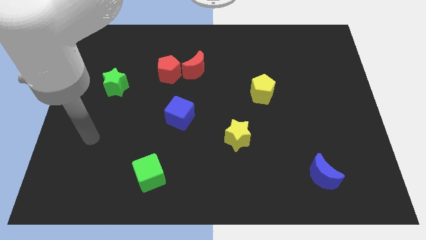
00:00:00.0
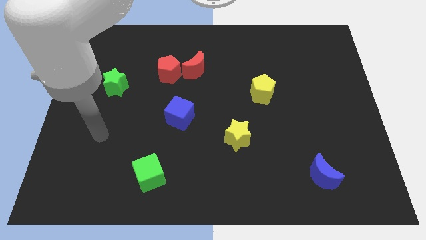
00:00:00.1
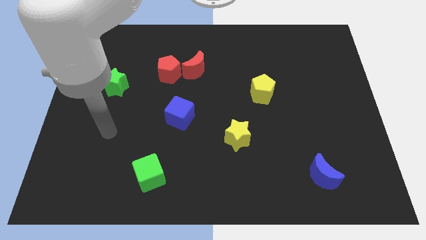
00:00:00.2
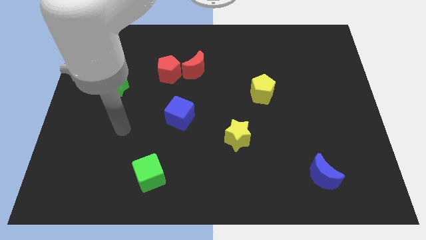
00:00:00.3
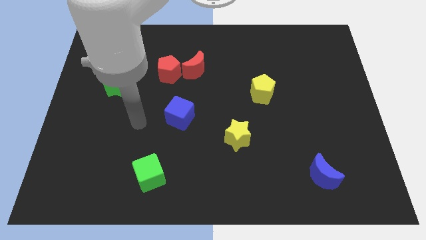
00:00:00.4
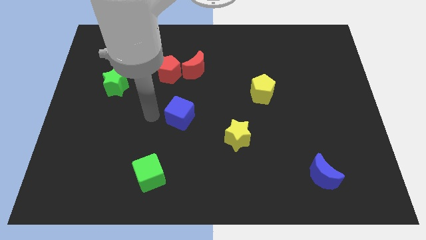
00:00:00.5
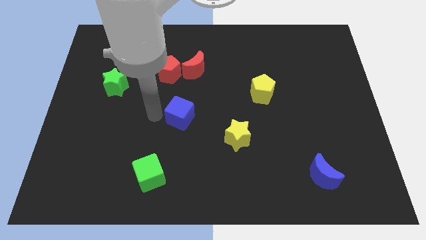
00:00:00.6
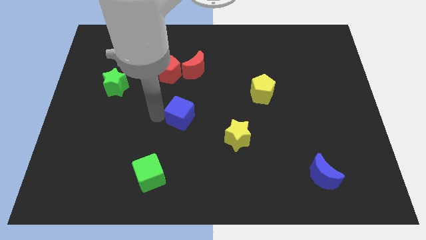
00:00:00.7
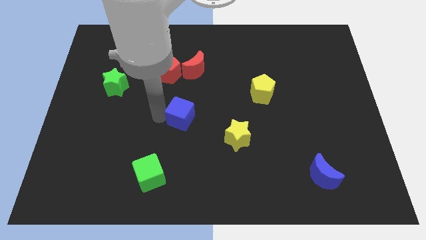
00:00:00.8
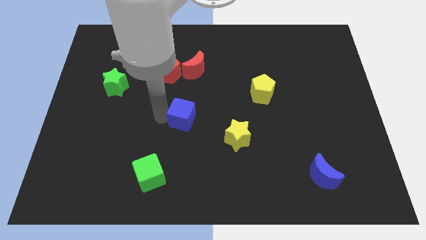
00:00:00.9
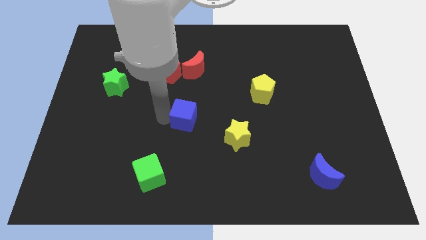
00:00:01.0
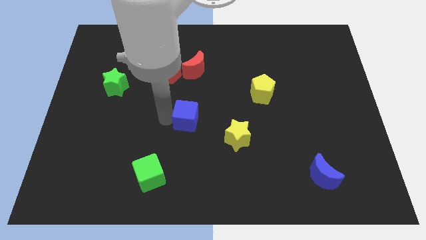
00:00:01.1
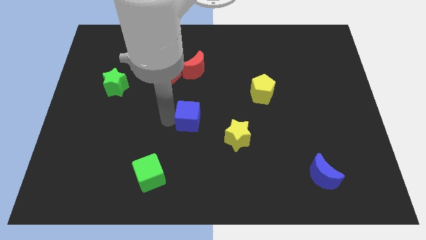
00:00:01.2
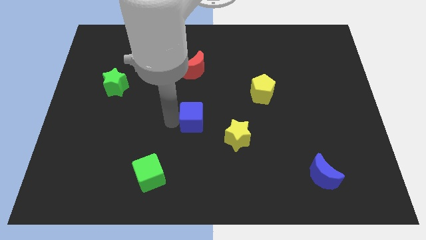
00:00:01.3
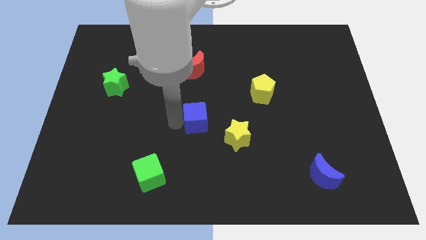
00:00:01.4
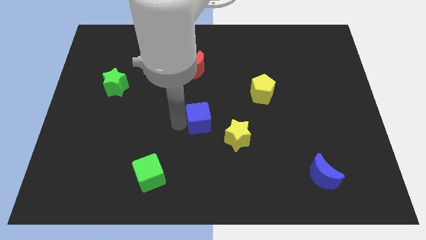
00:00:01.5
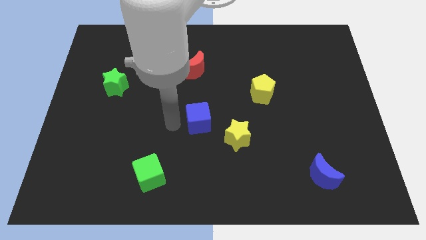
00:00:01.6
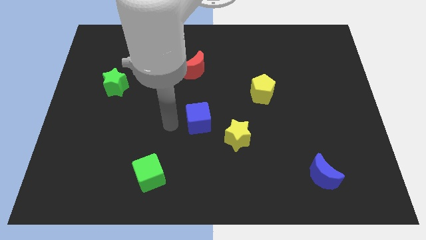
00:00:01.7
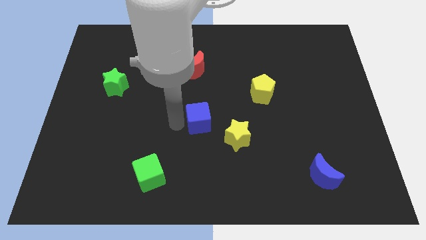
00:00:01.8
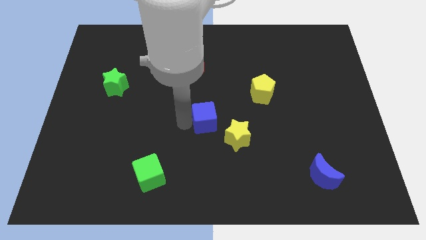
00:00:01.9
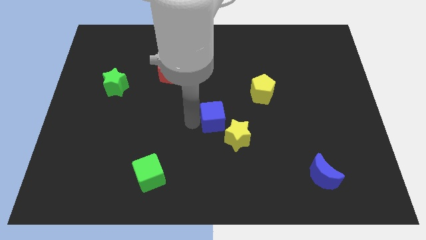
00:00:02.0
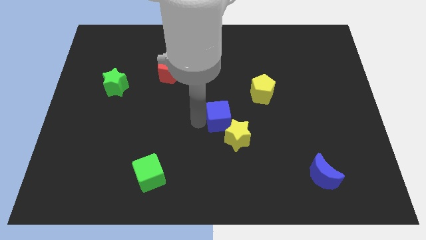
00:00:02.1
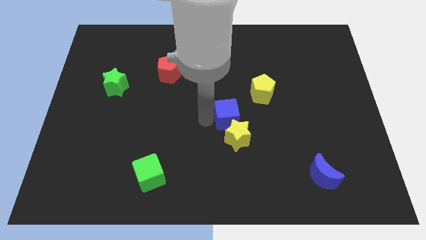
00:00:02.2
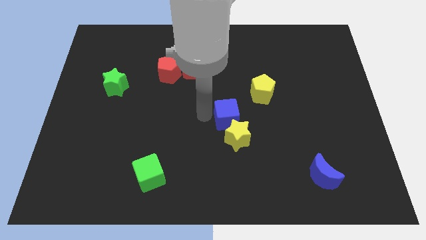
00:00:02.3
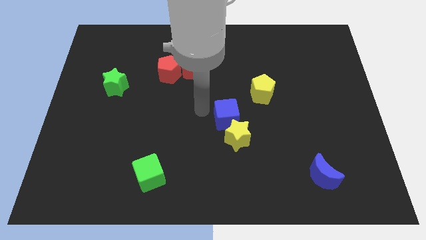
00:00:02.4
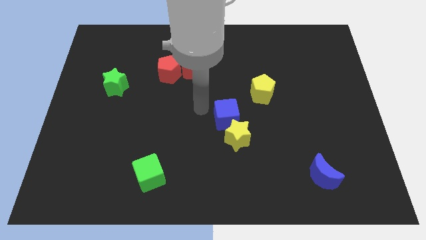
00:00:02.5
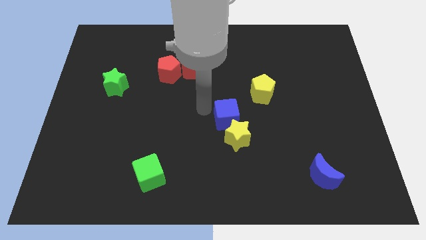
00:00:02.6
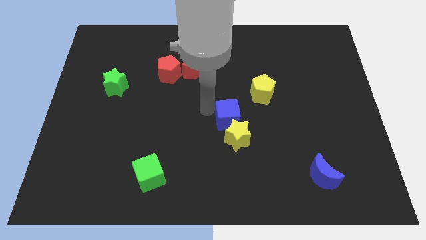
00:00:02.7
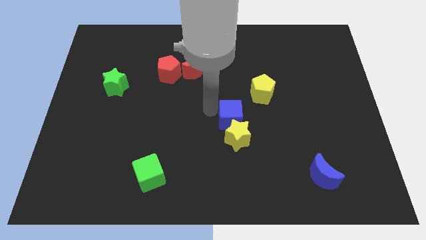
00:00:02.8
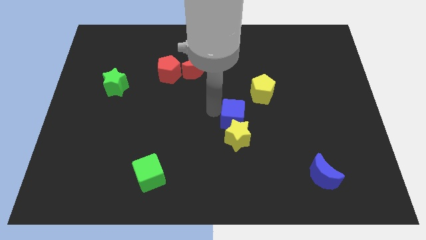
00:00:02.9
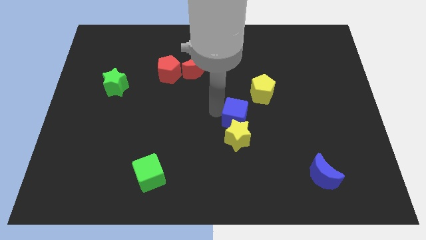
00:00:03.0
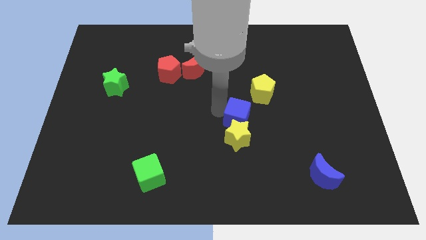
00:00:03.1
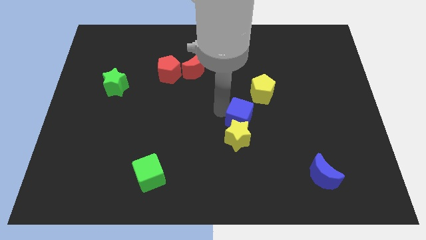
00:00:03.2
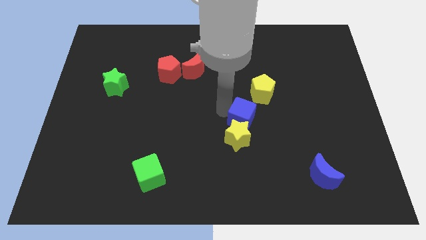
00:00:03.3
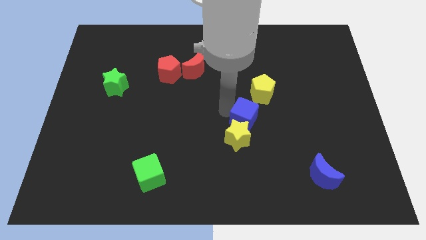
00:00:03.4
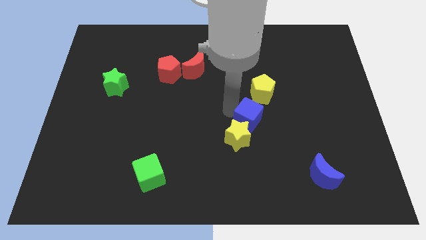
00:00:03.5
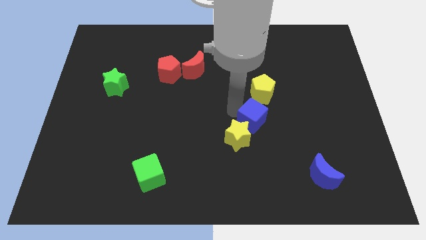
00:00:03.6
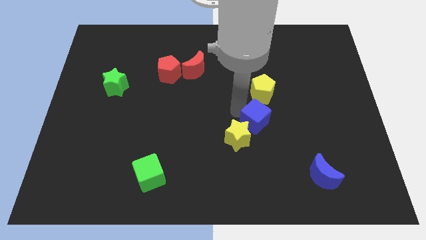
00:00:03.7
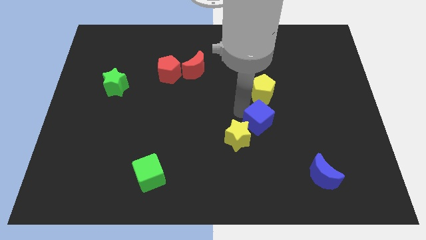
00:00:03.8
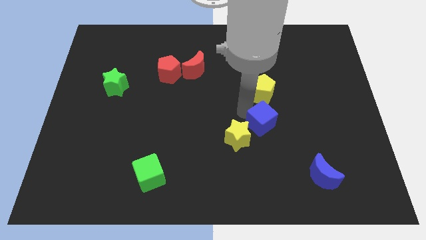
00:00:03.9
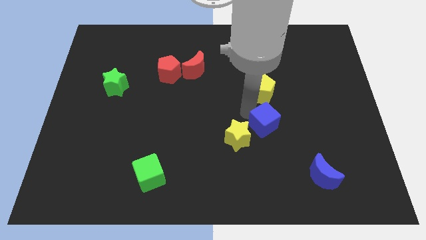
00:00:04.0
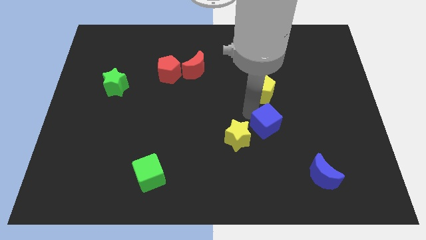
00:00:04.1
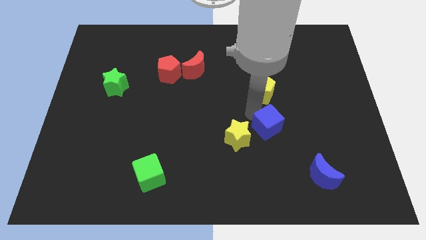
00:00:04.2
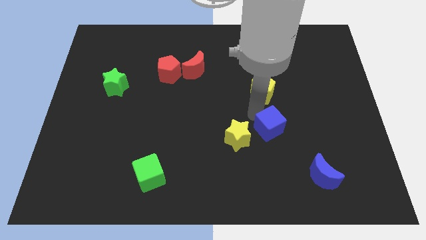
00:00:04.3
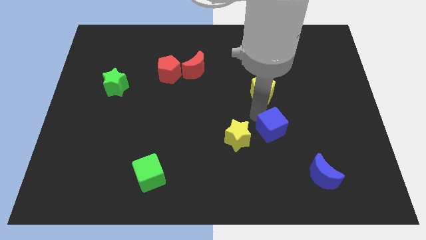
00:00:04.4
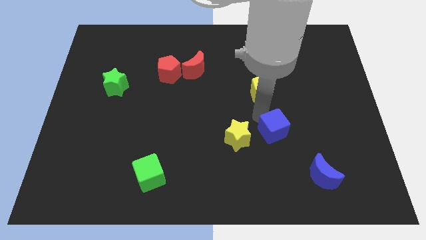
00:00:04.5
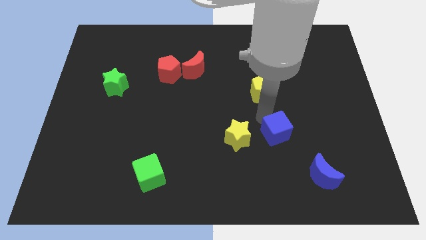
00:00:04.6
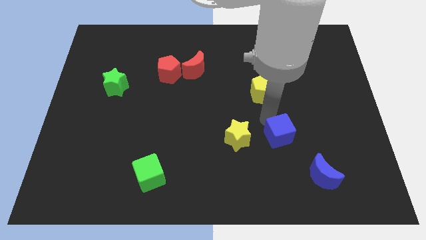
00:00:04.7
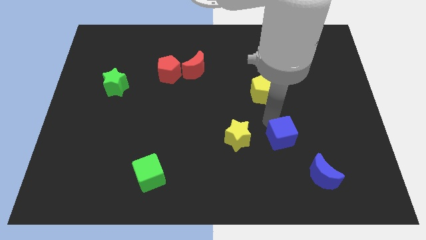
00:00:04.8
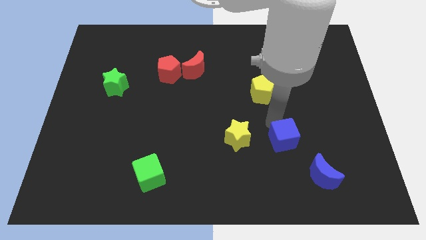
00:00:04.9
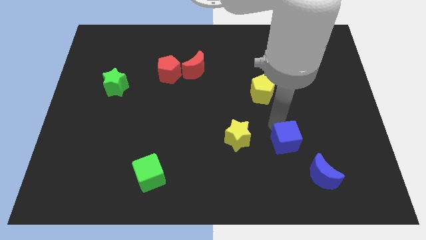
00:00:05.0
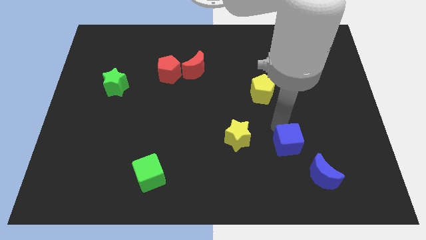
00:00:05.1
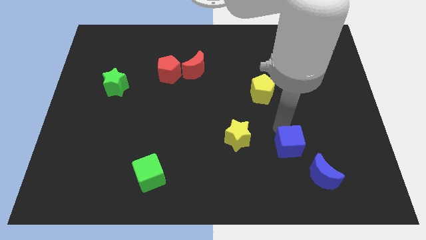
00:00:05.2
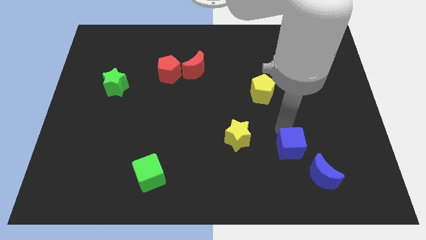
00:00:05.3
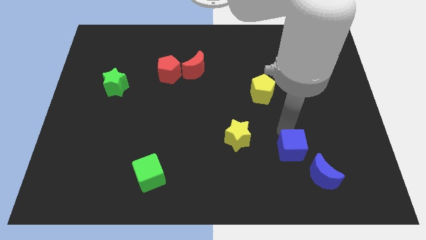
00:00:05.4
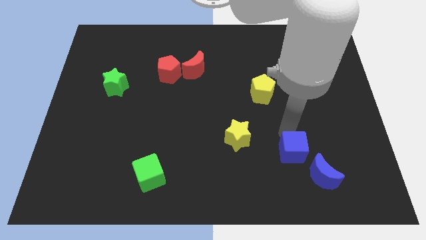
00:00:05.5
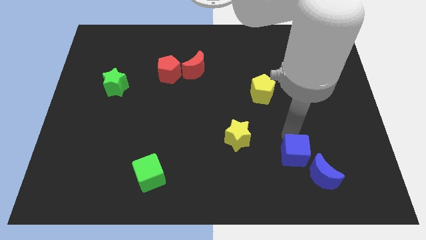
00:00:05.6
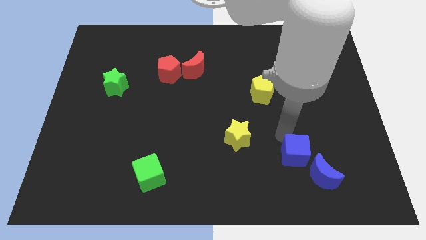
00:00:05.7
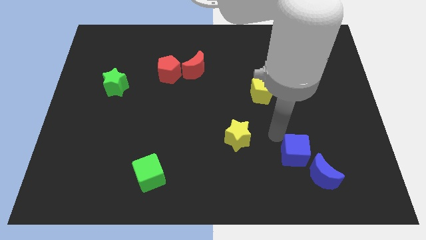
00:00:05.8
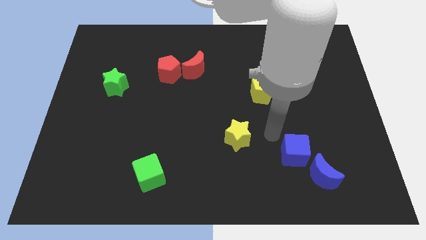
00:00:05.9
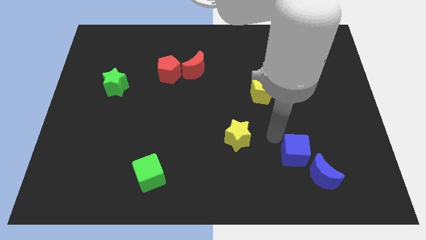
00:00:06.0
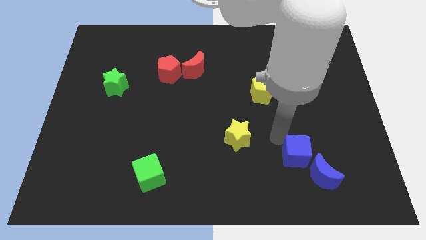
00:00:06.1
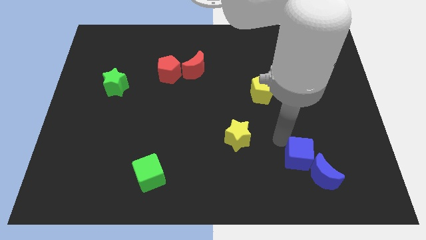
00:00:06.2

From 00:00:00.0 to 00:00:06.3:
move the blue cube to the blue moon
